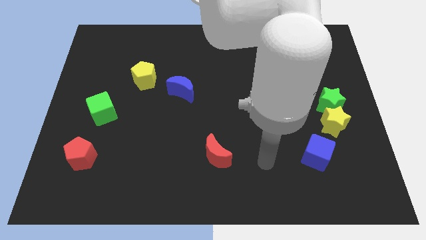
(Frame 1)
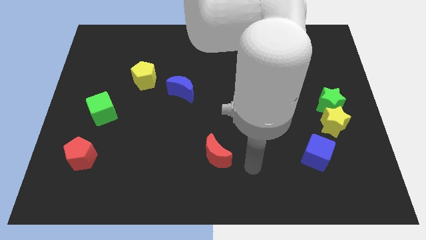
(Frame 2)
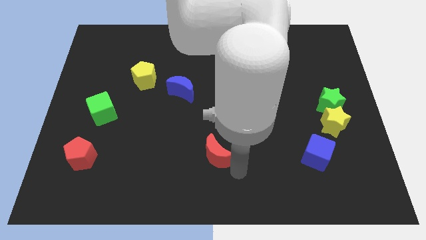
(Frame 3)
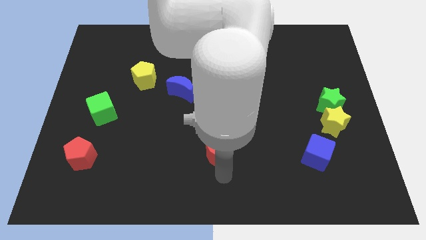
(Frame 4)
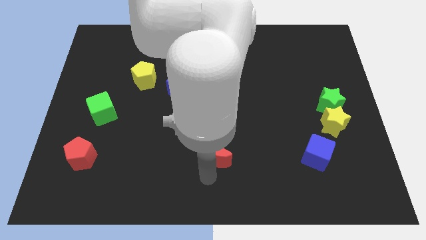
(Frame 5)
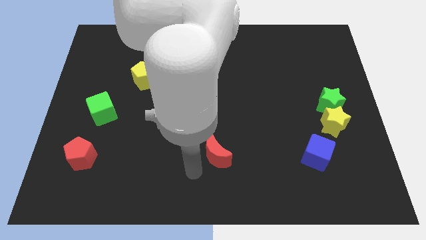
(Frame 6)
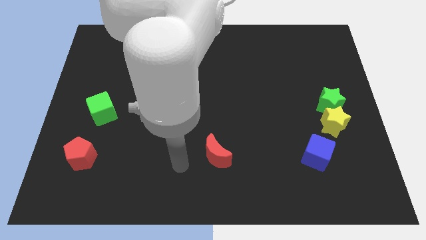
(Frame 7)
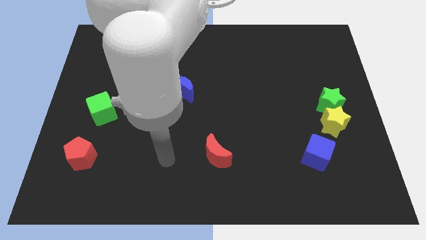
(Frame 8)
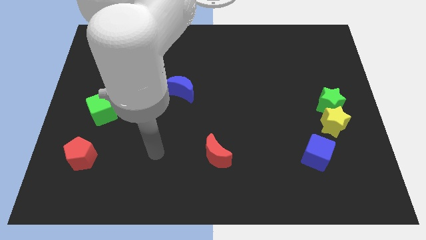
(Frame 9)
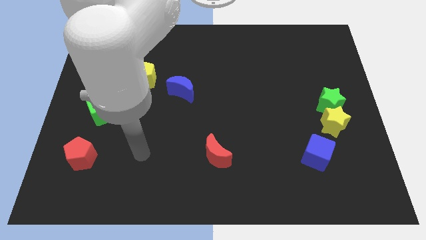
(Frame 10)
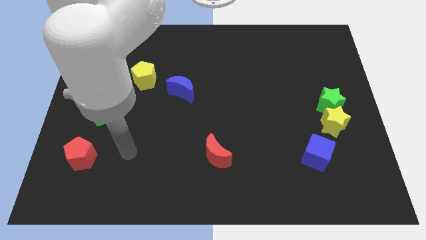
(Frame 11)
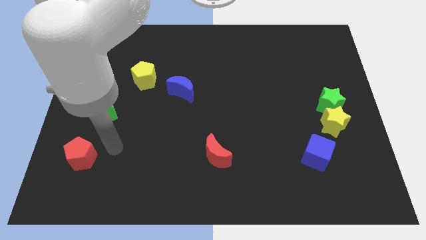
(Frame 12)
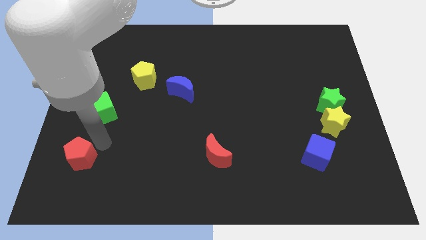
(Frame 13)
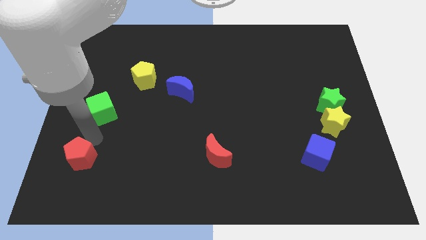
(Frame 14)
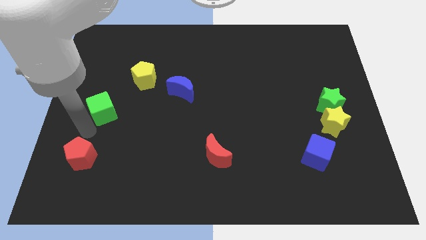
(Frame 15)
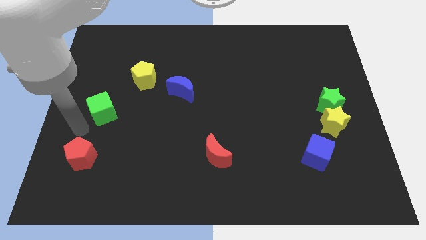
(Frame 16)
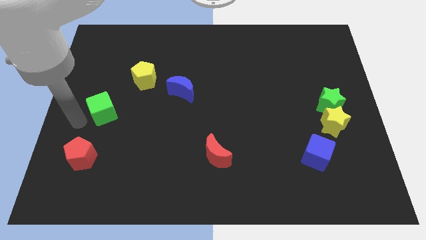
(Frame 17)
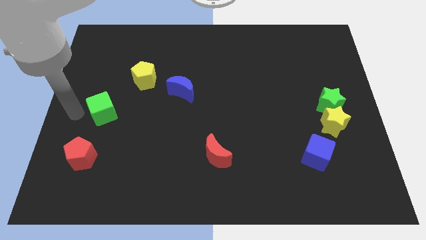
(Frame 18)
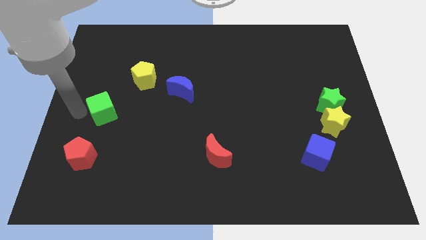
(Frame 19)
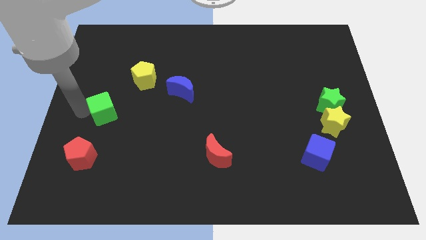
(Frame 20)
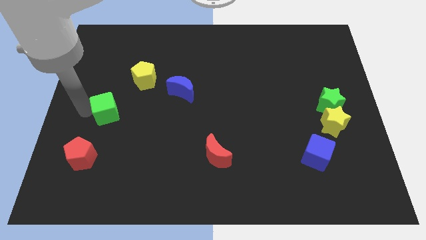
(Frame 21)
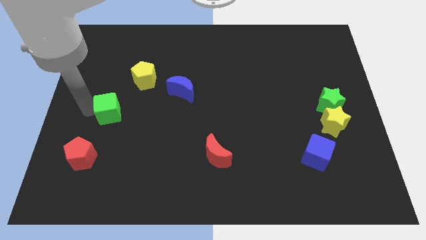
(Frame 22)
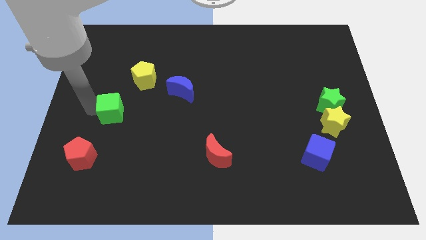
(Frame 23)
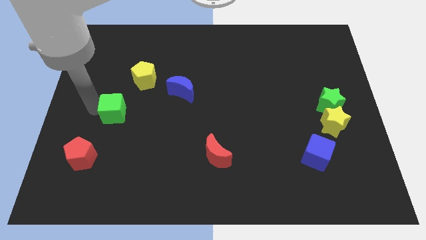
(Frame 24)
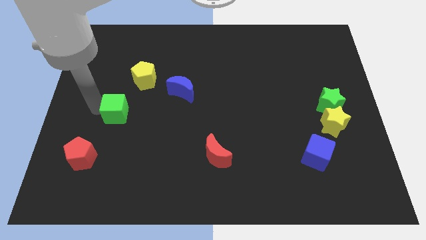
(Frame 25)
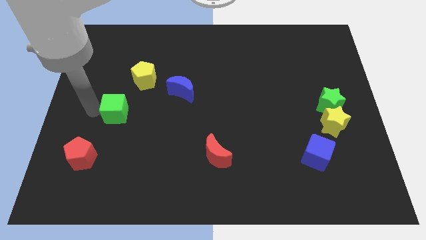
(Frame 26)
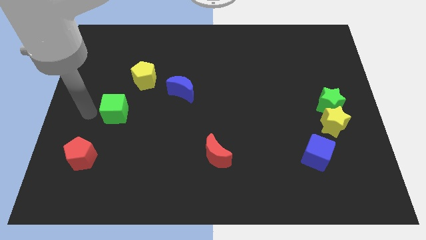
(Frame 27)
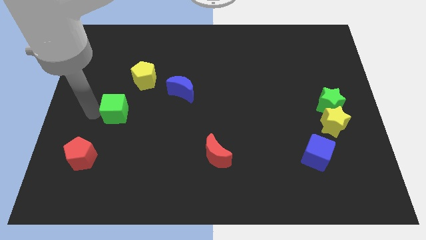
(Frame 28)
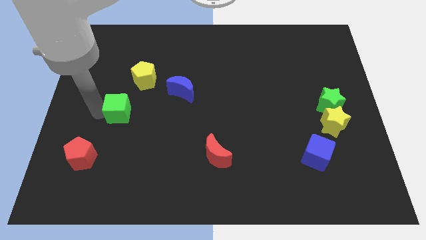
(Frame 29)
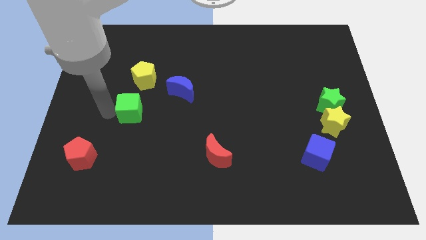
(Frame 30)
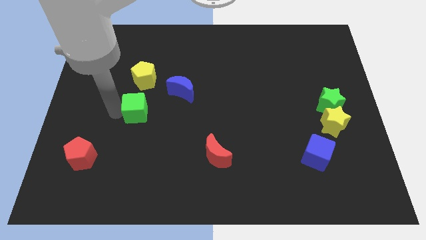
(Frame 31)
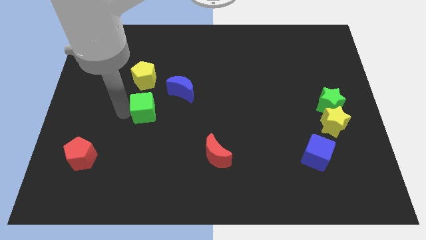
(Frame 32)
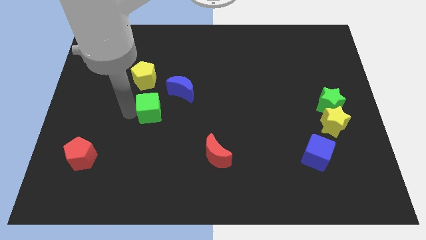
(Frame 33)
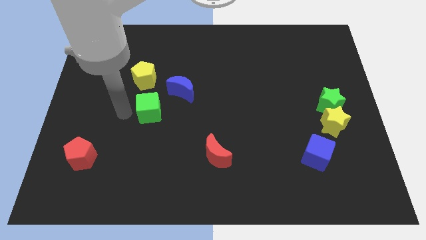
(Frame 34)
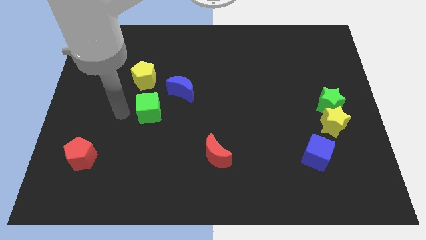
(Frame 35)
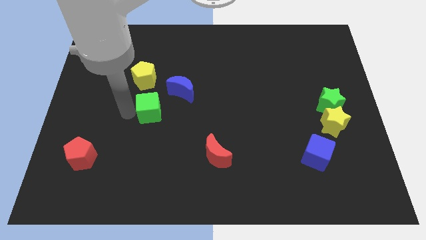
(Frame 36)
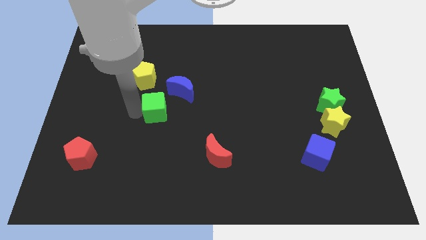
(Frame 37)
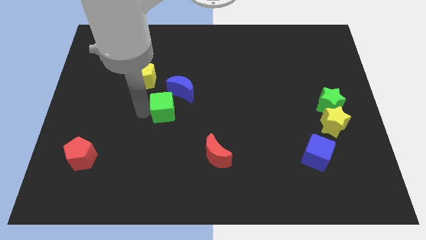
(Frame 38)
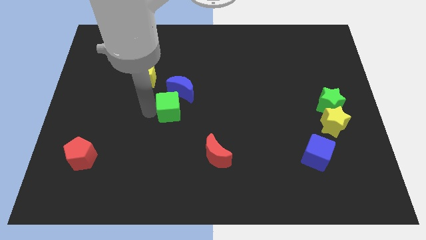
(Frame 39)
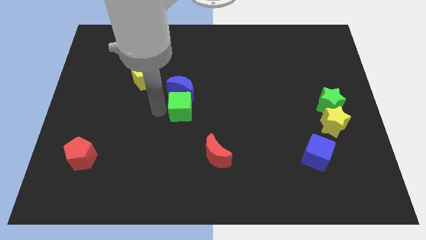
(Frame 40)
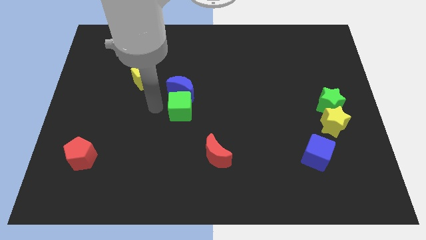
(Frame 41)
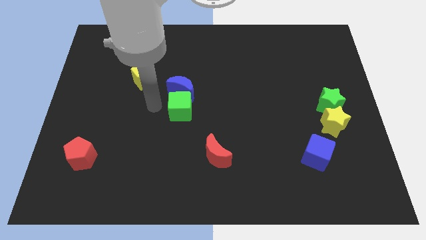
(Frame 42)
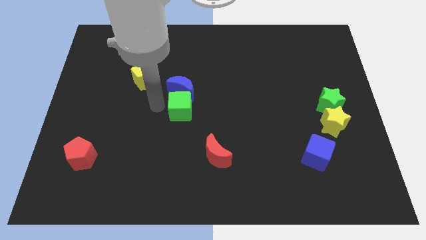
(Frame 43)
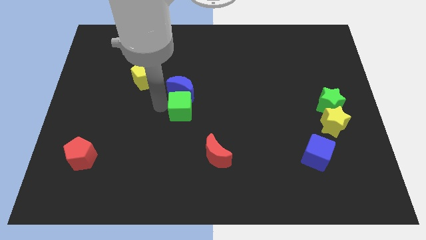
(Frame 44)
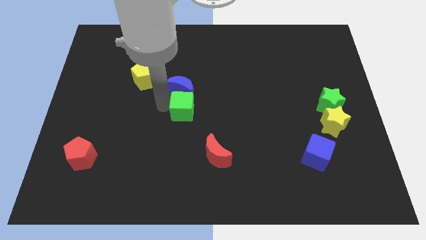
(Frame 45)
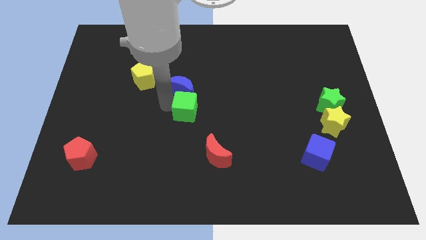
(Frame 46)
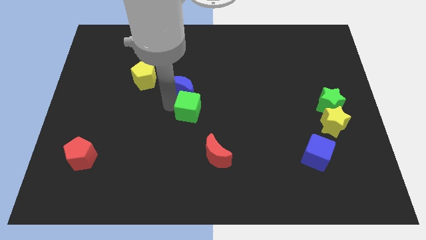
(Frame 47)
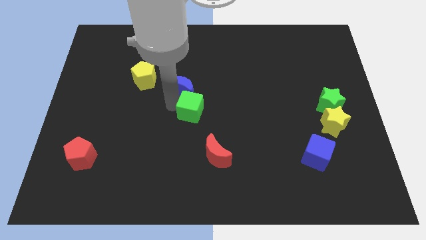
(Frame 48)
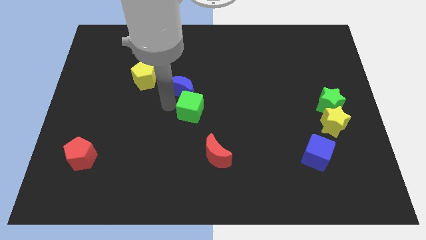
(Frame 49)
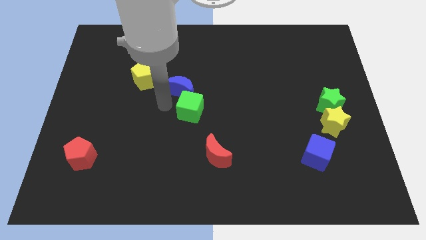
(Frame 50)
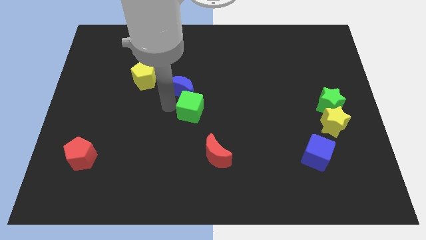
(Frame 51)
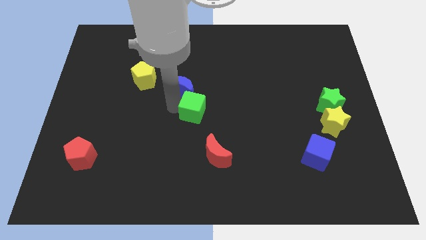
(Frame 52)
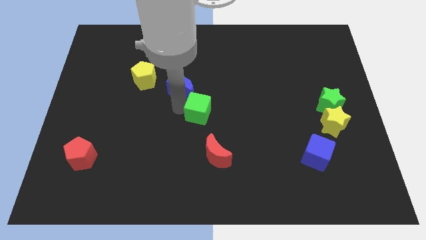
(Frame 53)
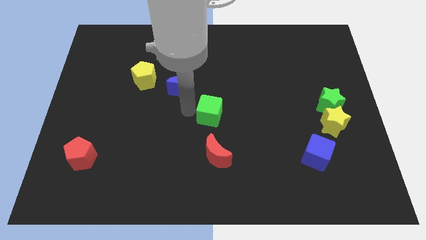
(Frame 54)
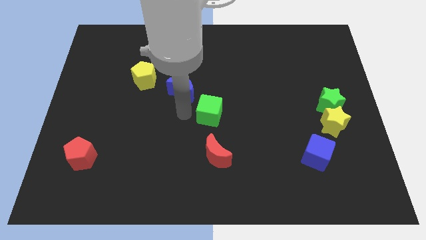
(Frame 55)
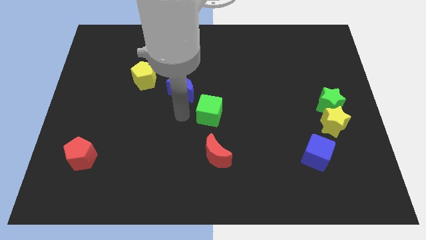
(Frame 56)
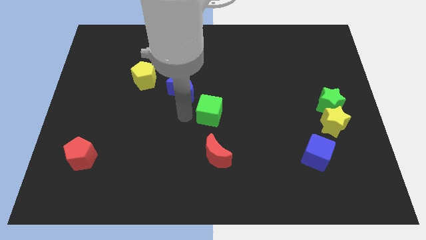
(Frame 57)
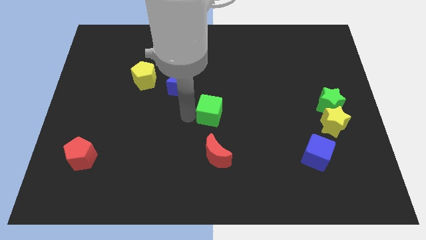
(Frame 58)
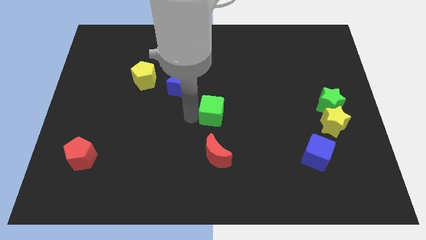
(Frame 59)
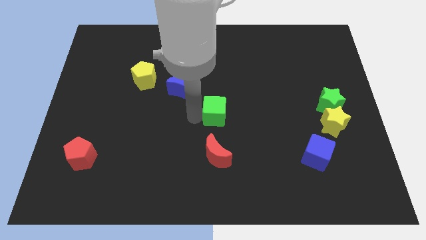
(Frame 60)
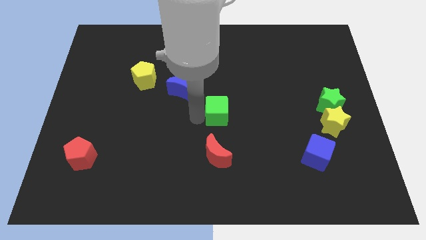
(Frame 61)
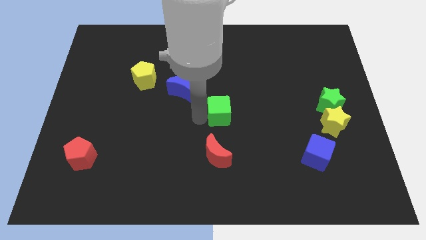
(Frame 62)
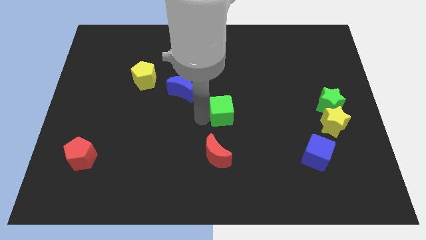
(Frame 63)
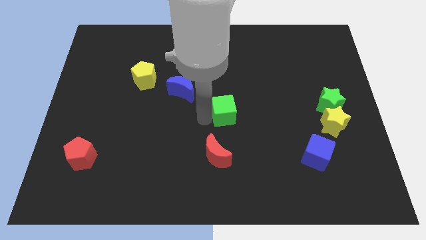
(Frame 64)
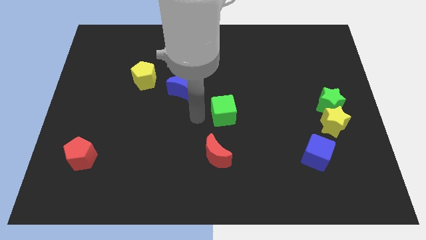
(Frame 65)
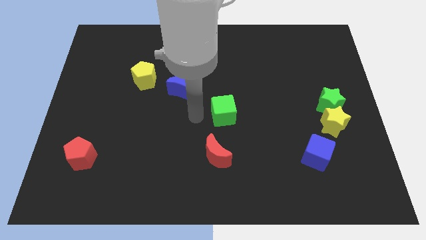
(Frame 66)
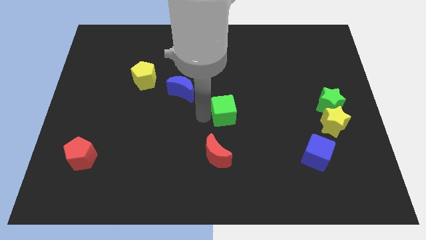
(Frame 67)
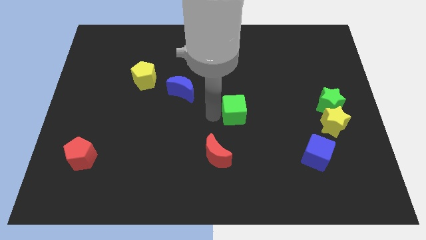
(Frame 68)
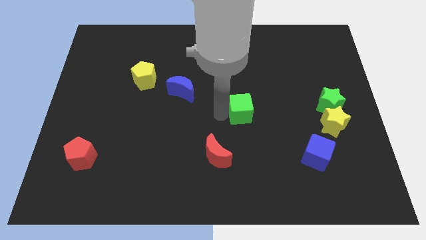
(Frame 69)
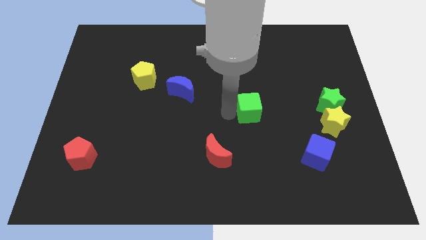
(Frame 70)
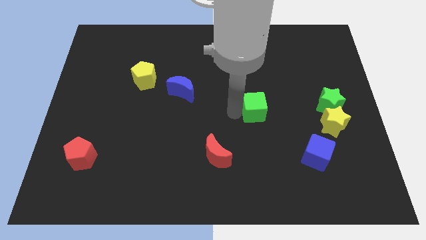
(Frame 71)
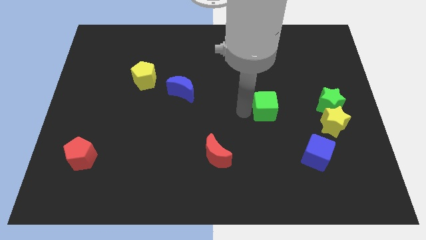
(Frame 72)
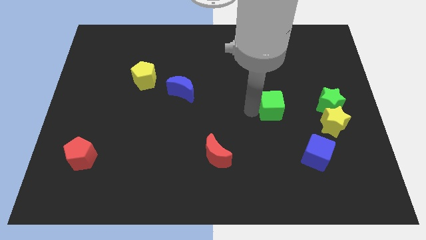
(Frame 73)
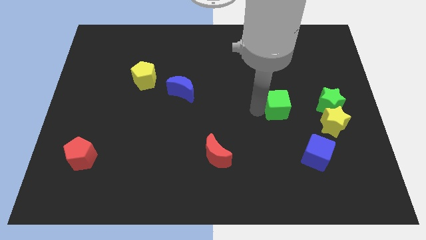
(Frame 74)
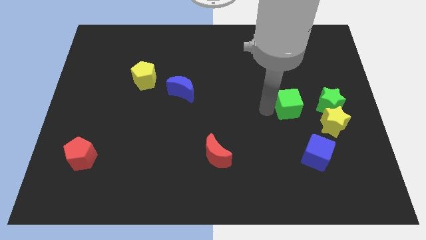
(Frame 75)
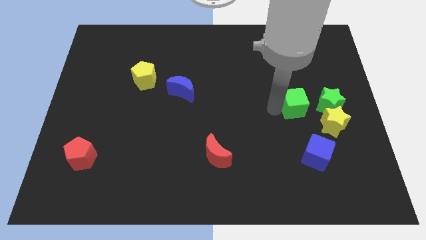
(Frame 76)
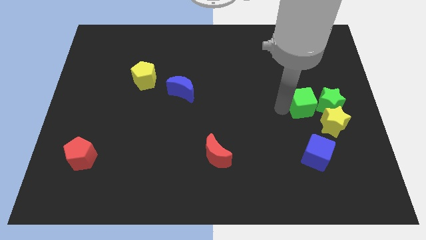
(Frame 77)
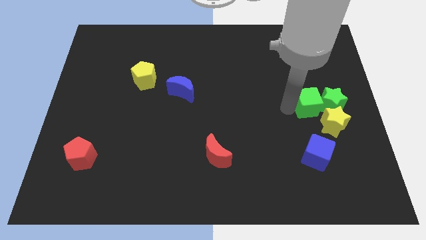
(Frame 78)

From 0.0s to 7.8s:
push the green cube next to the green star
